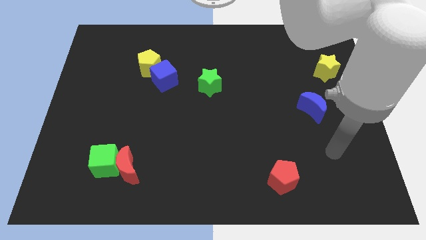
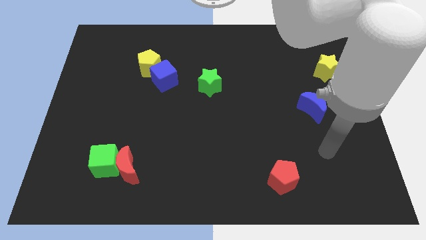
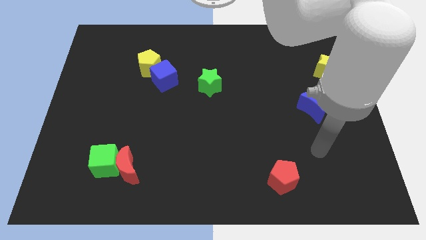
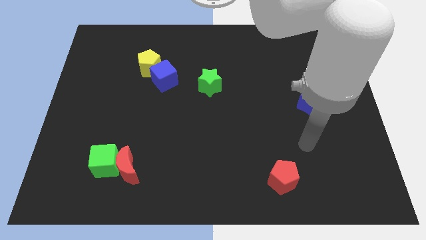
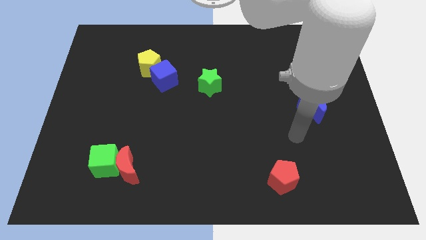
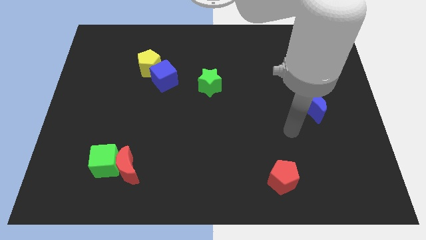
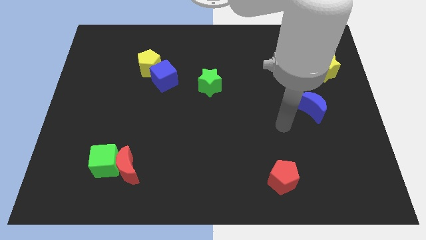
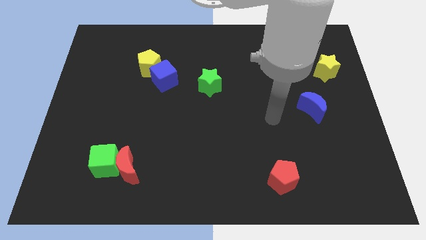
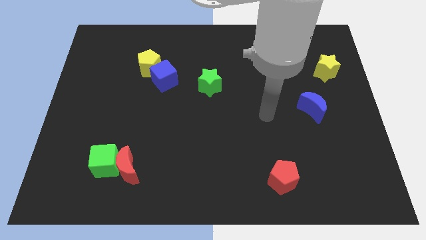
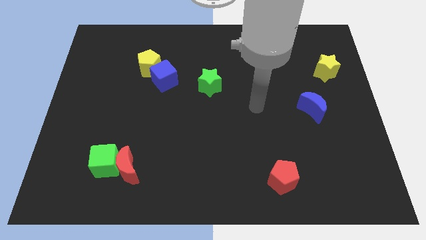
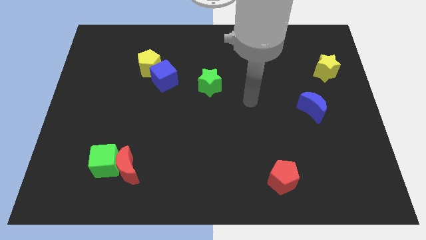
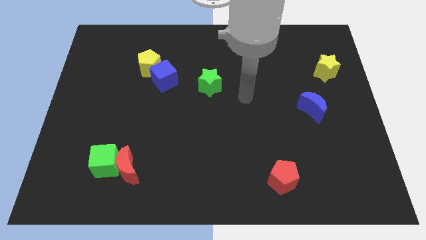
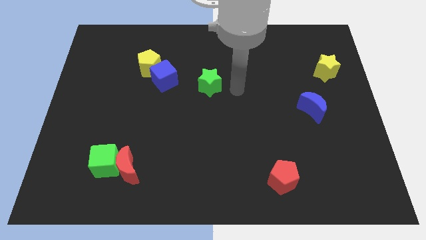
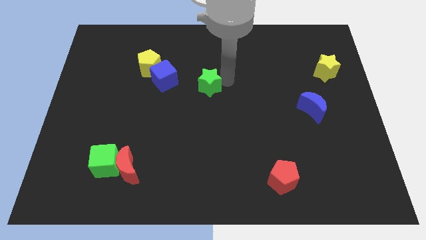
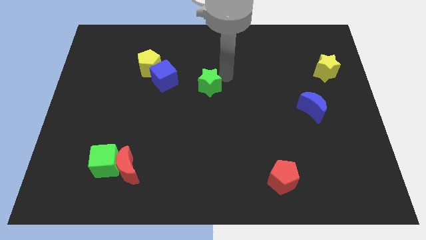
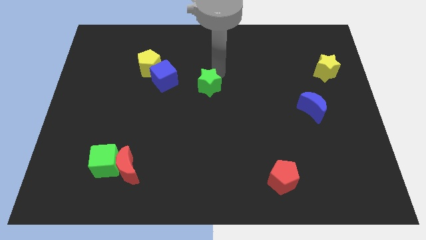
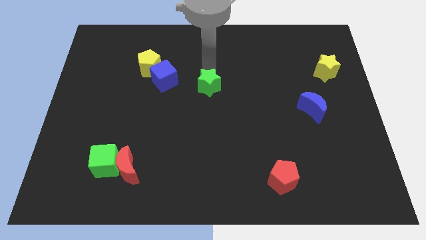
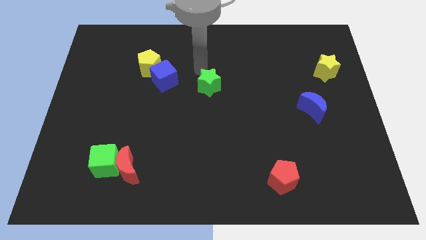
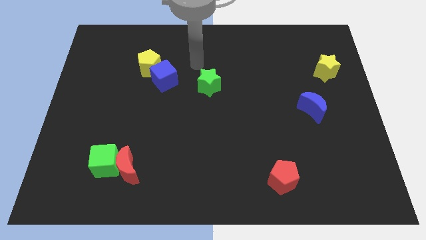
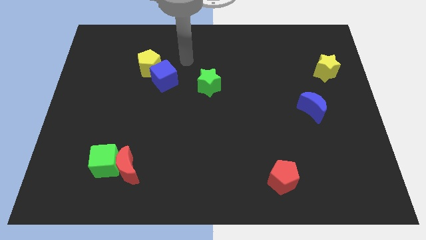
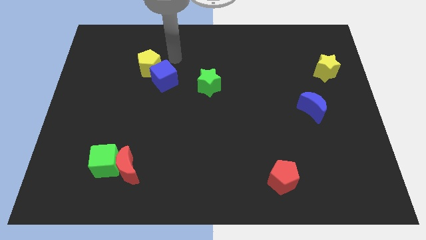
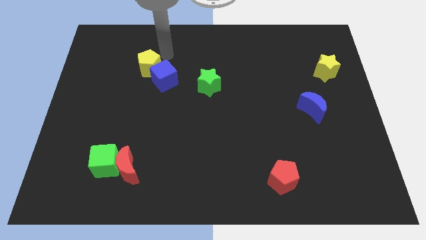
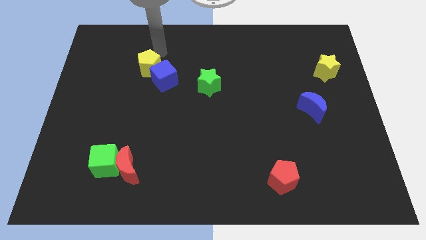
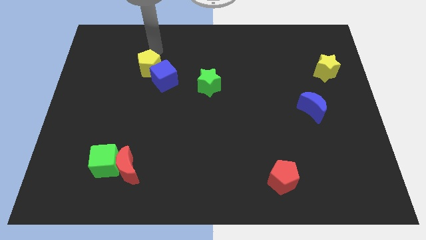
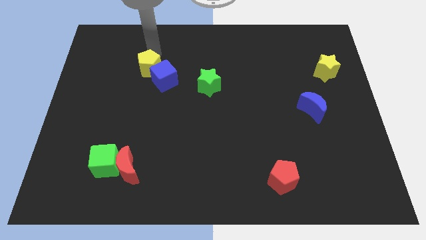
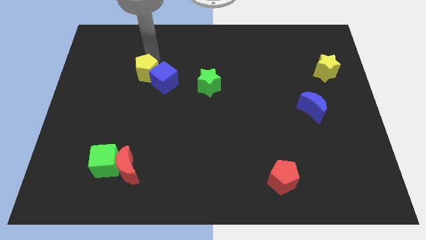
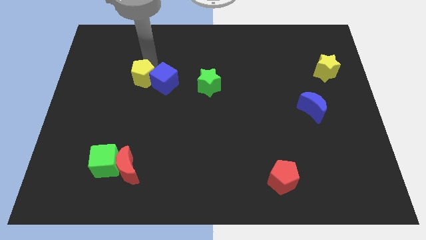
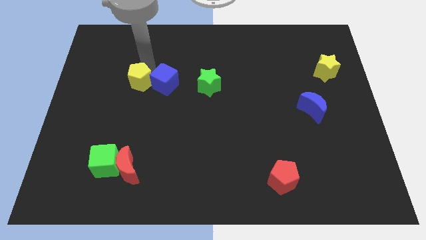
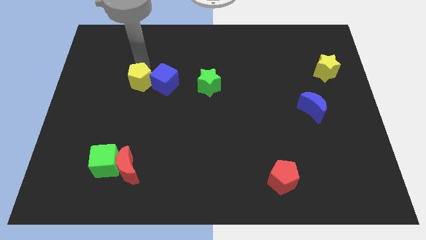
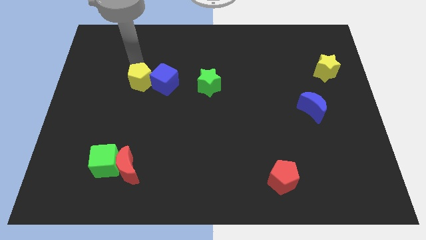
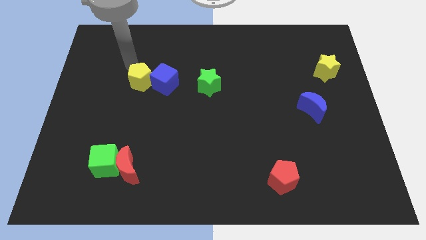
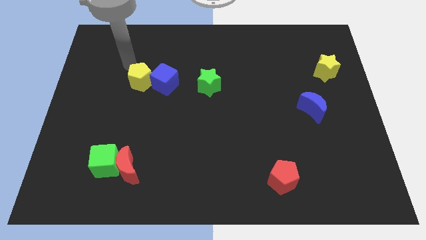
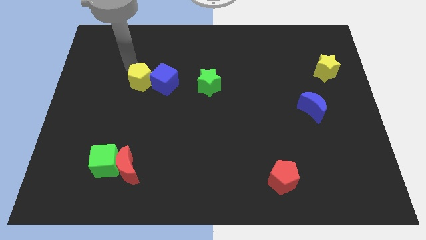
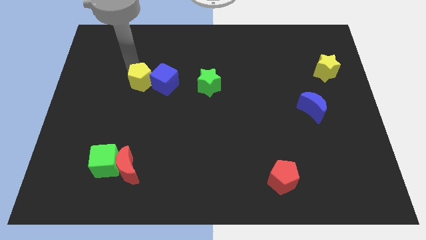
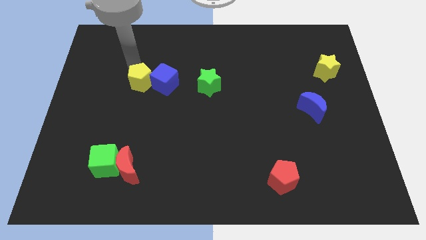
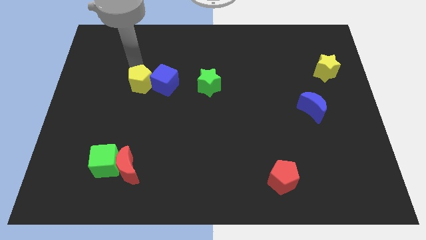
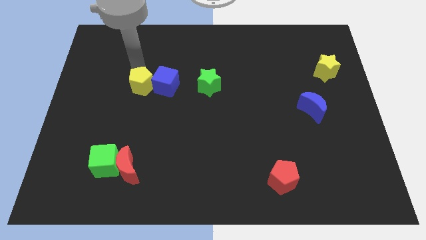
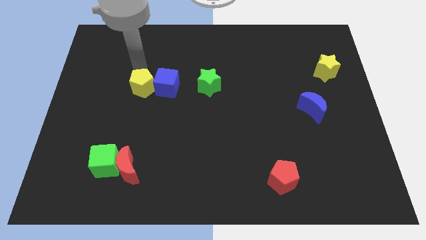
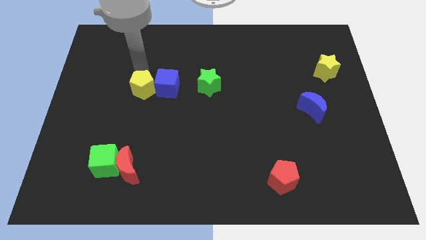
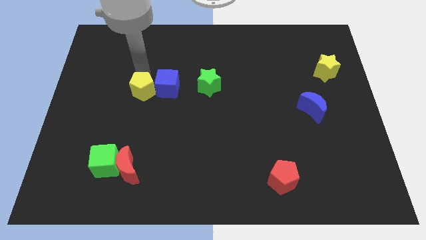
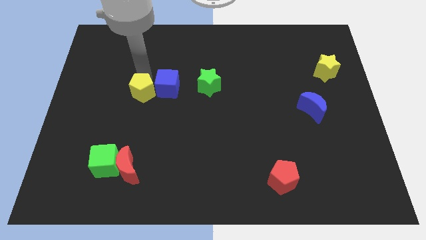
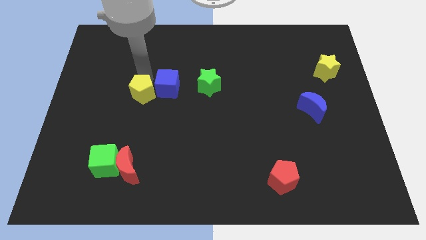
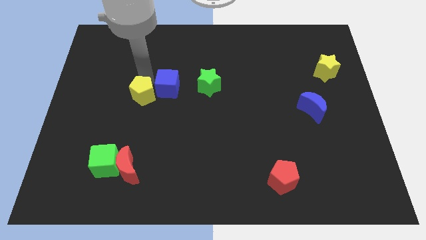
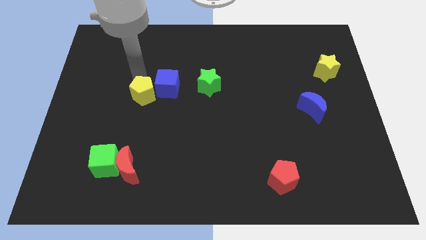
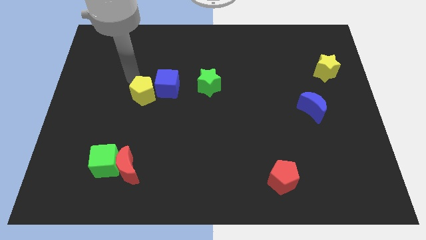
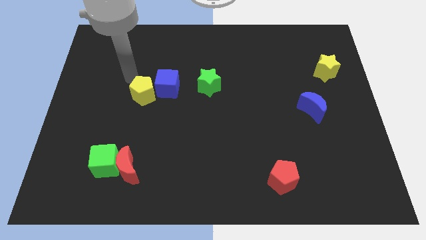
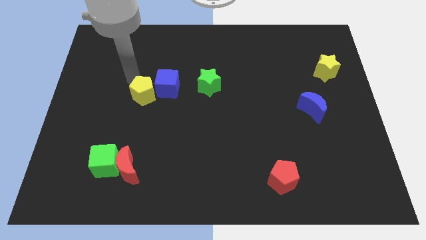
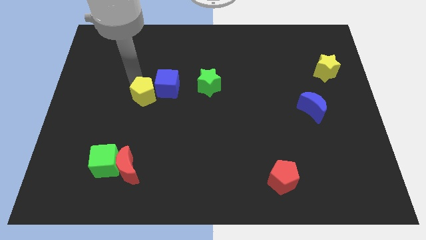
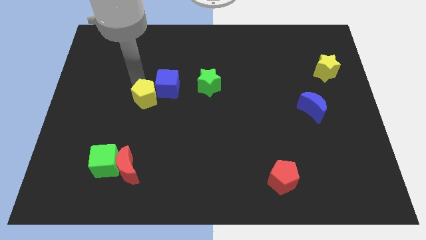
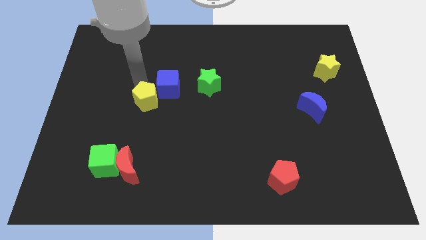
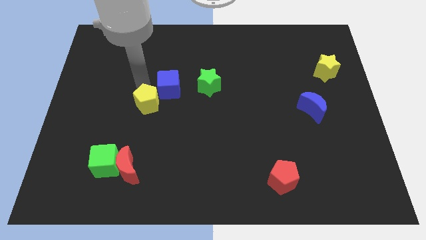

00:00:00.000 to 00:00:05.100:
put the yellow pentagon below the blue cube

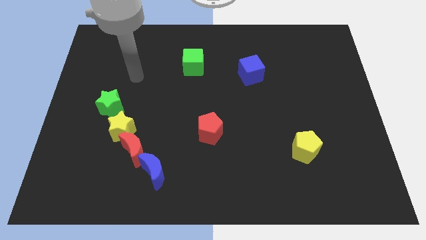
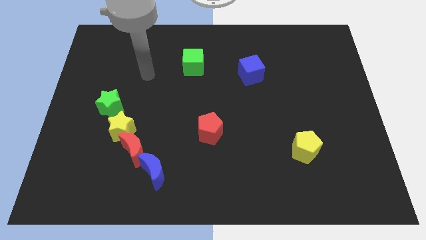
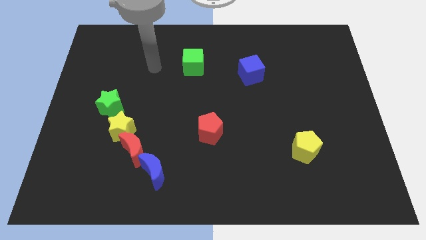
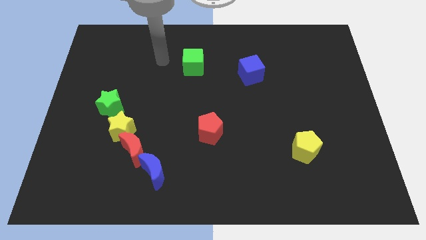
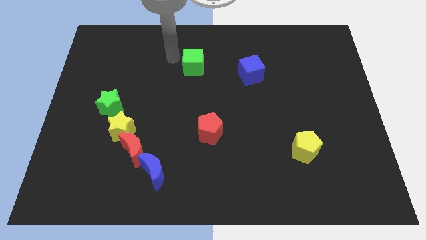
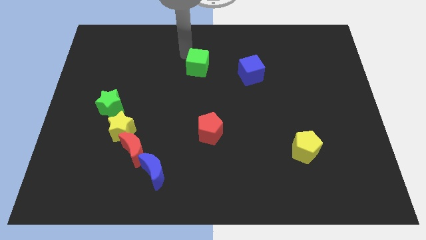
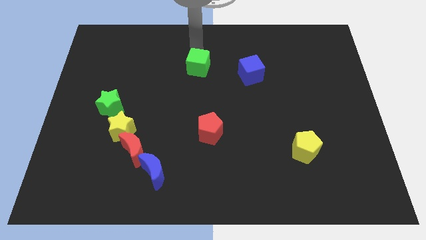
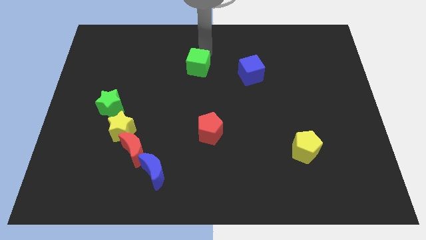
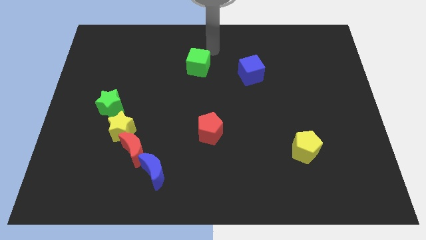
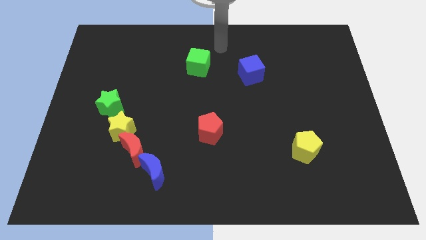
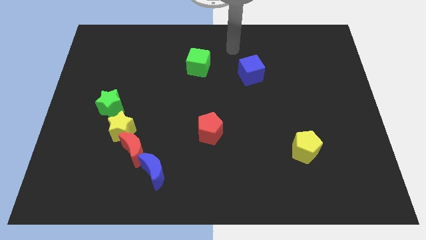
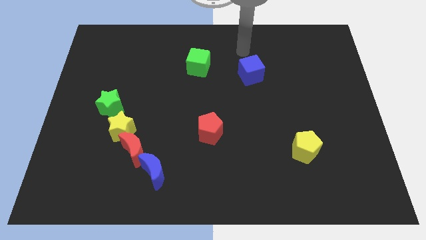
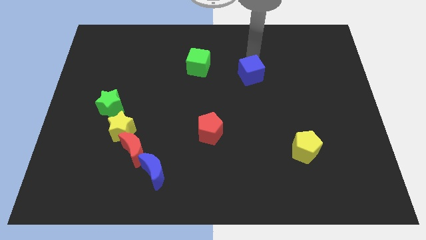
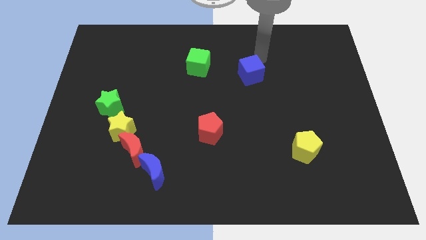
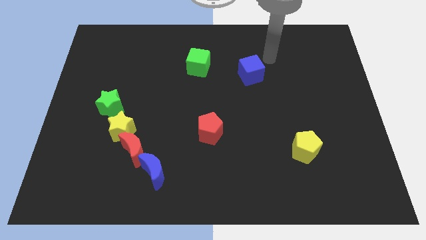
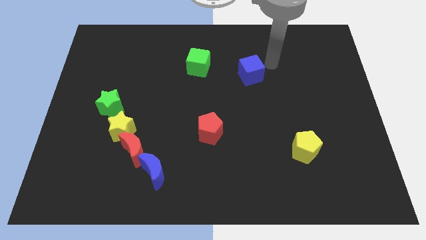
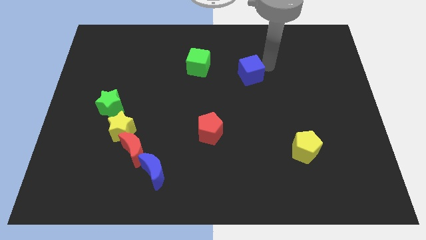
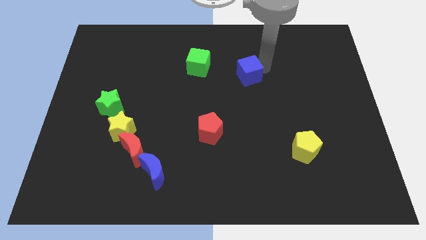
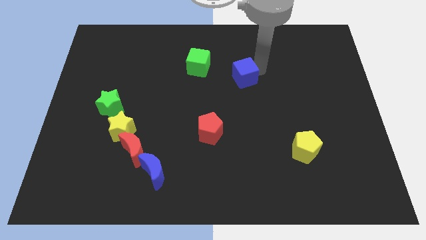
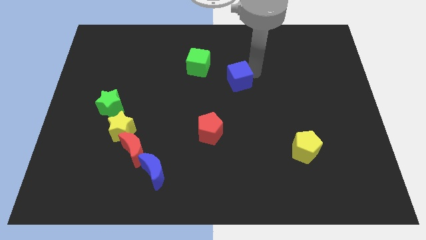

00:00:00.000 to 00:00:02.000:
put the blue cube to the bottom right side of the green cube
